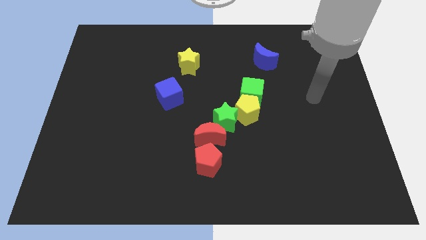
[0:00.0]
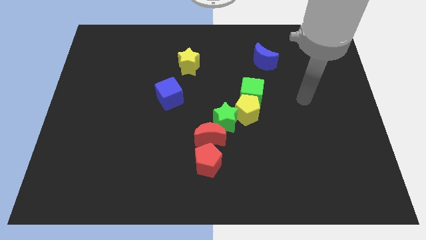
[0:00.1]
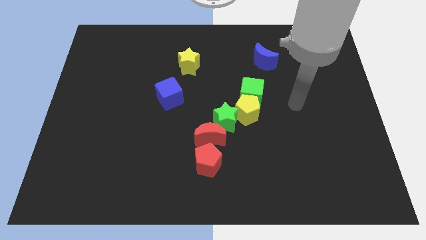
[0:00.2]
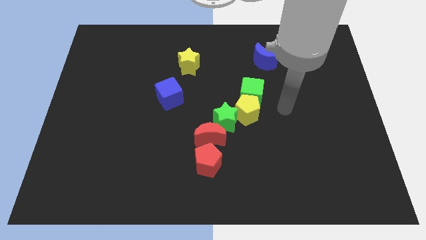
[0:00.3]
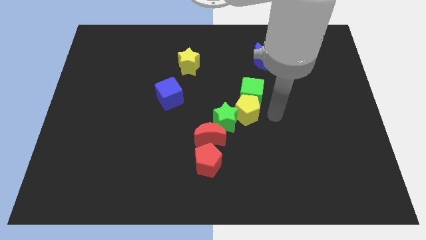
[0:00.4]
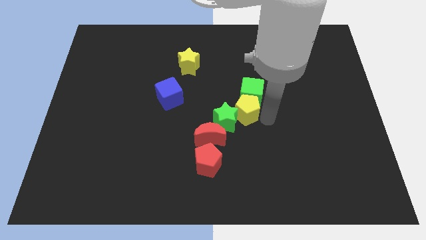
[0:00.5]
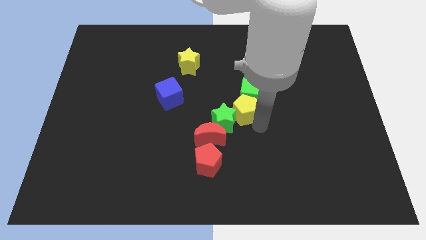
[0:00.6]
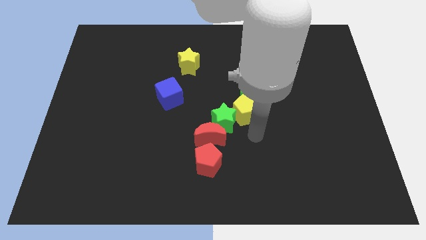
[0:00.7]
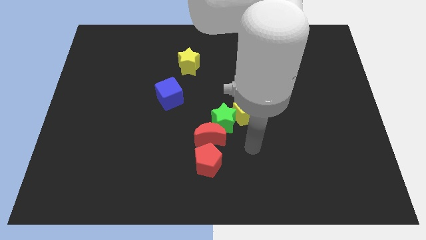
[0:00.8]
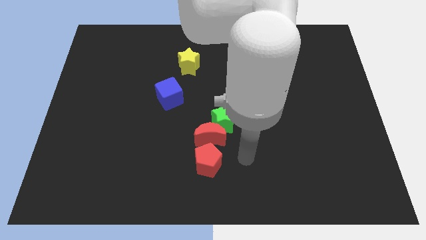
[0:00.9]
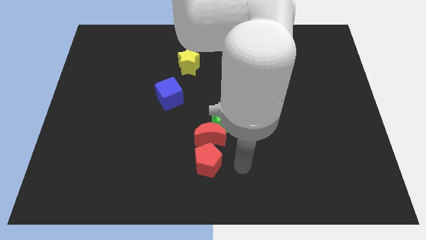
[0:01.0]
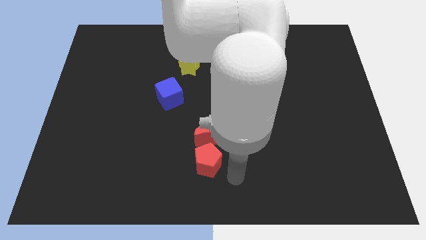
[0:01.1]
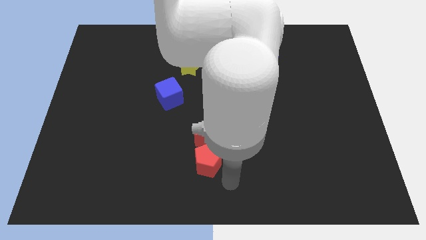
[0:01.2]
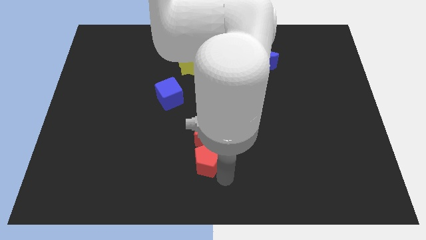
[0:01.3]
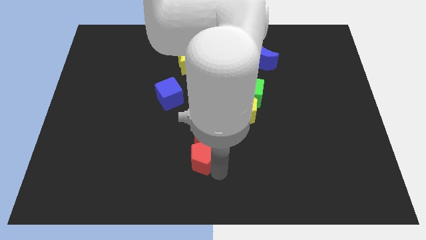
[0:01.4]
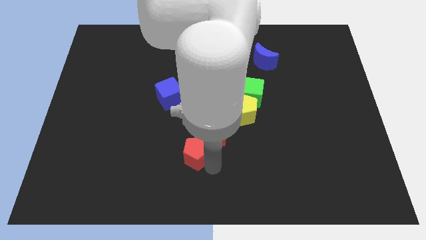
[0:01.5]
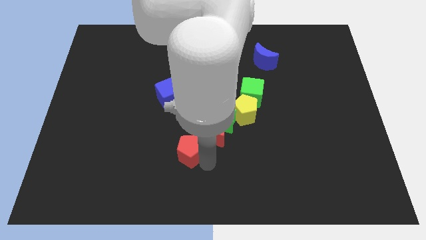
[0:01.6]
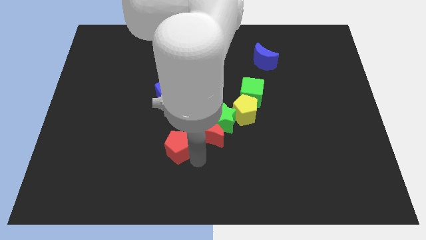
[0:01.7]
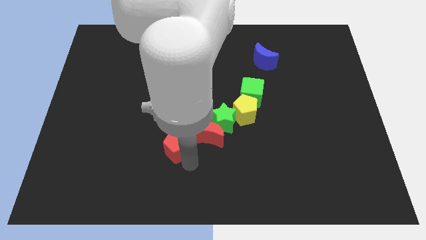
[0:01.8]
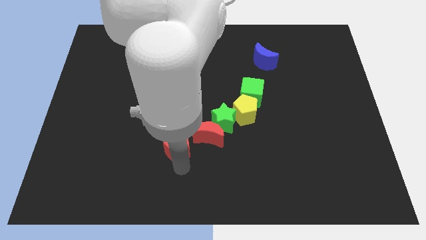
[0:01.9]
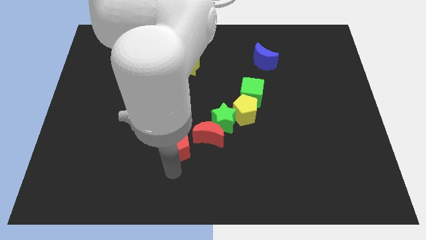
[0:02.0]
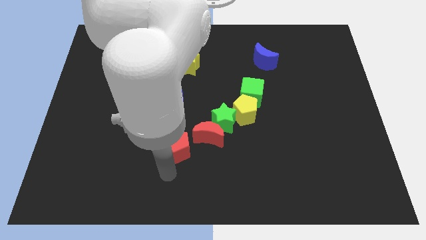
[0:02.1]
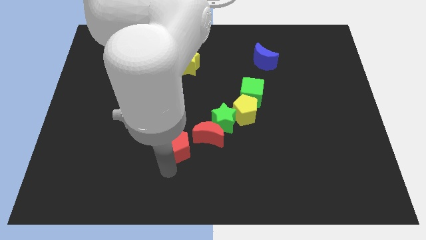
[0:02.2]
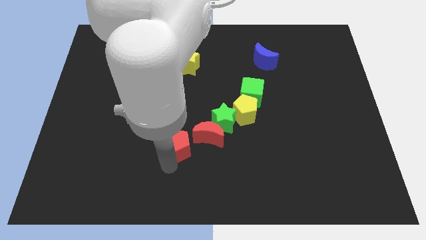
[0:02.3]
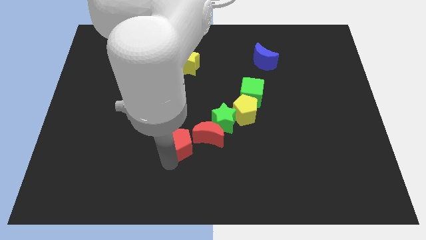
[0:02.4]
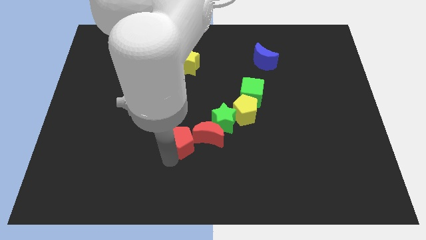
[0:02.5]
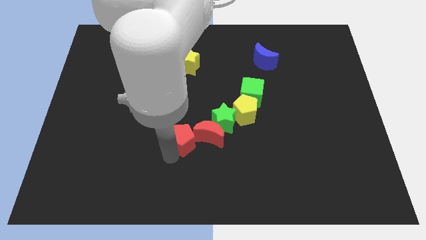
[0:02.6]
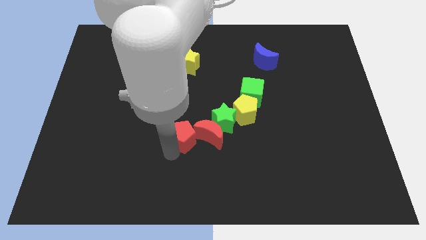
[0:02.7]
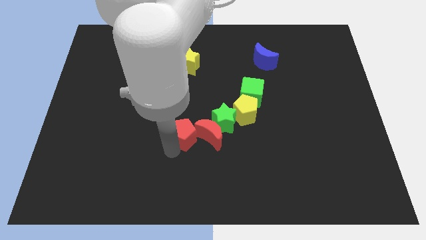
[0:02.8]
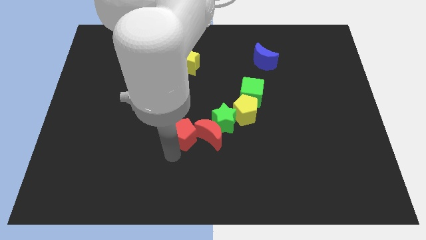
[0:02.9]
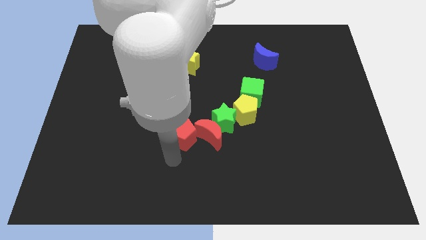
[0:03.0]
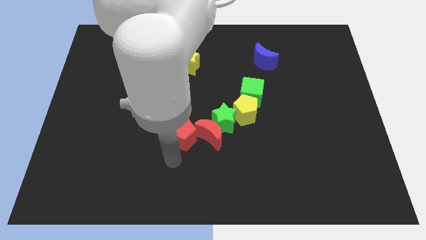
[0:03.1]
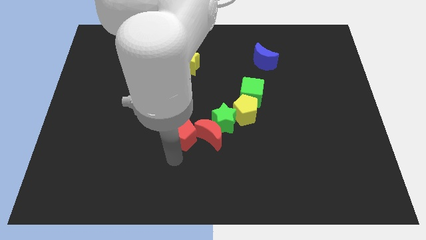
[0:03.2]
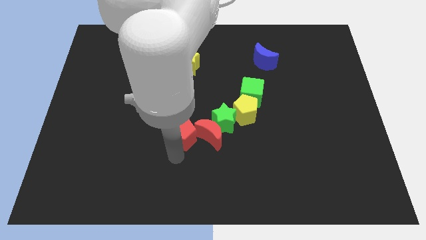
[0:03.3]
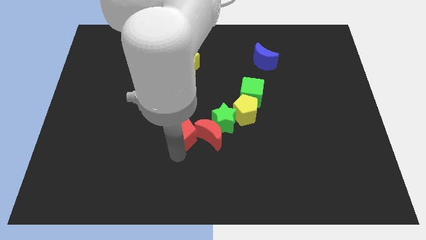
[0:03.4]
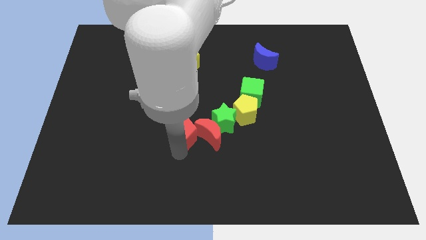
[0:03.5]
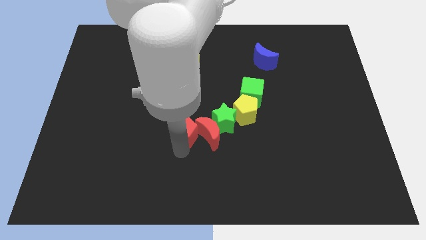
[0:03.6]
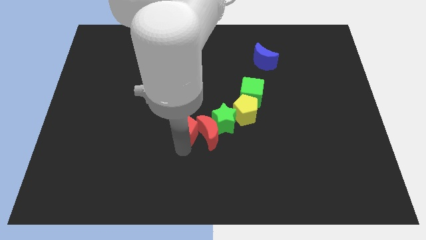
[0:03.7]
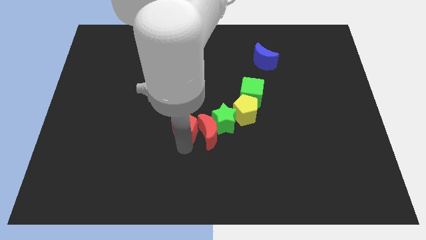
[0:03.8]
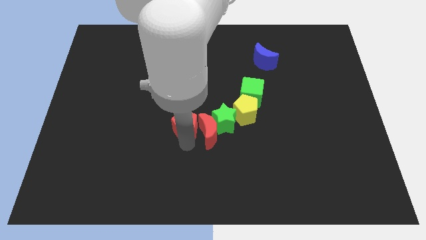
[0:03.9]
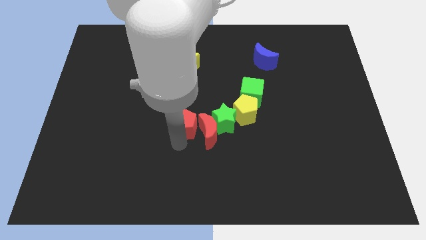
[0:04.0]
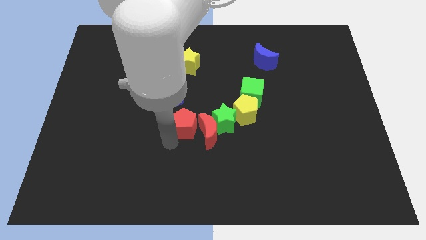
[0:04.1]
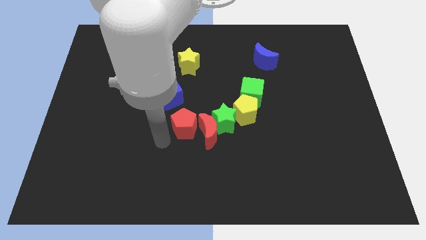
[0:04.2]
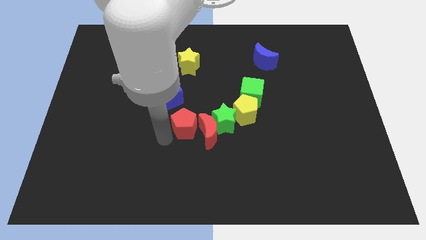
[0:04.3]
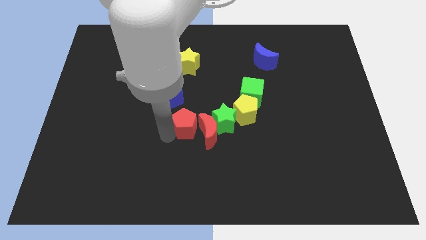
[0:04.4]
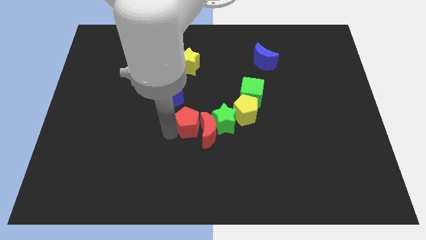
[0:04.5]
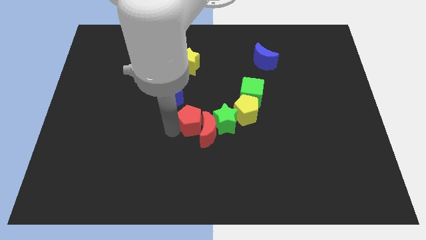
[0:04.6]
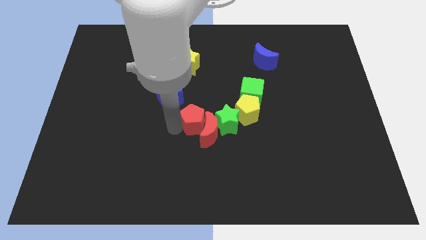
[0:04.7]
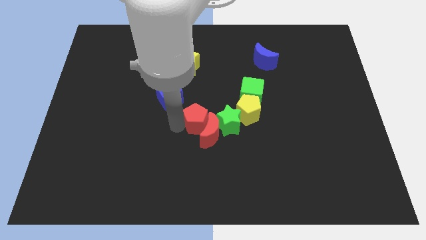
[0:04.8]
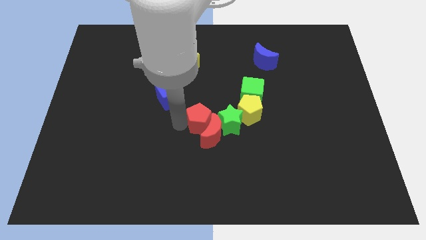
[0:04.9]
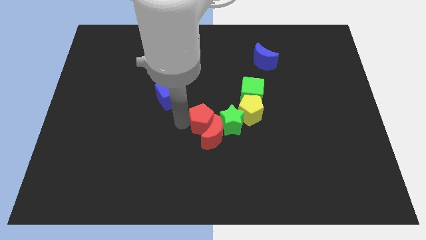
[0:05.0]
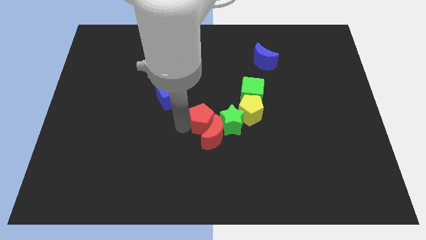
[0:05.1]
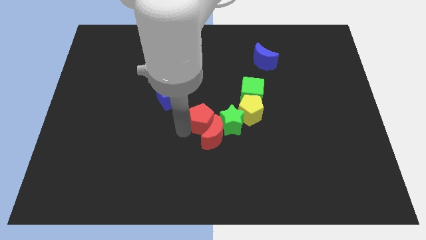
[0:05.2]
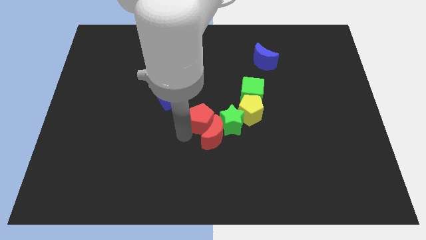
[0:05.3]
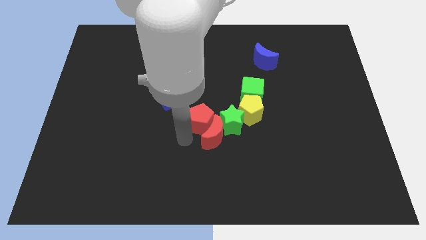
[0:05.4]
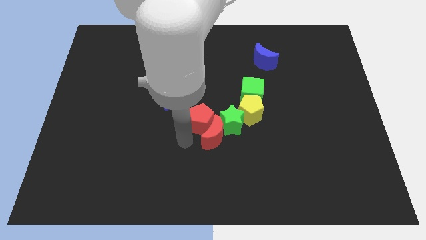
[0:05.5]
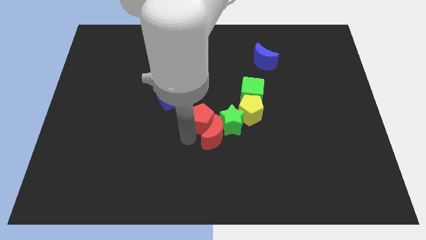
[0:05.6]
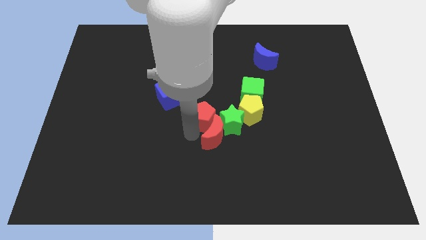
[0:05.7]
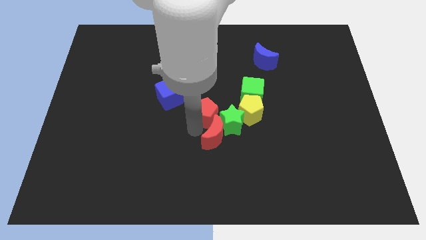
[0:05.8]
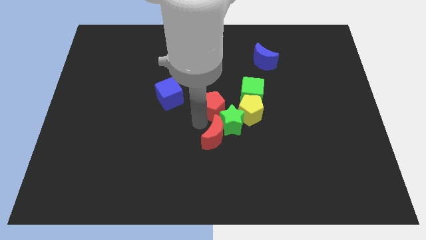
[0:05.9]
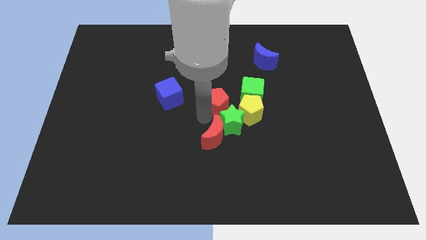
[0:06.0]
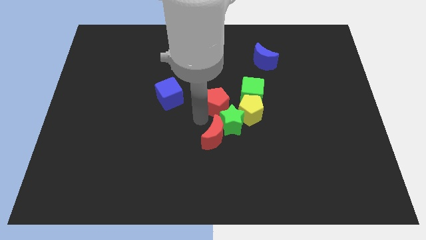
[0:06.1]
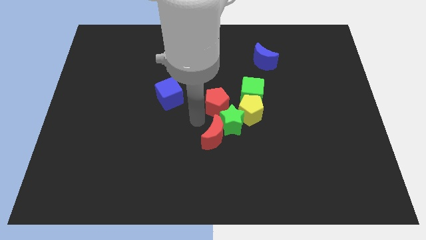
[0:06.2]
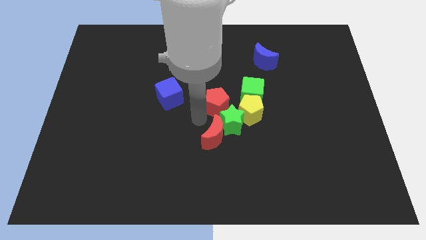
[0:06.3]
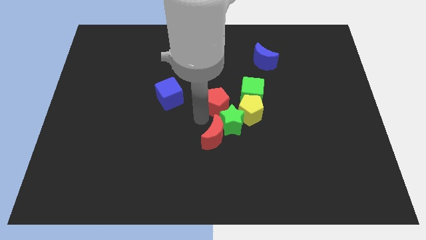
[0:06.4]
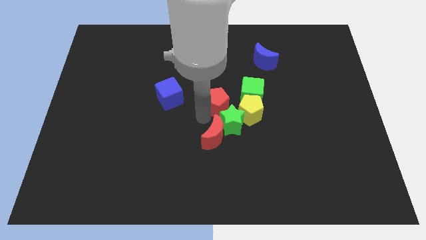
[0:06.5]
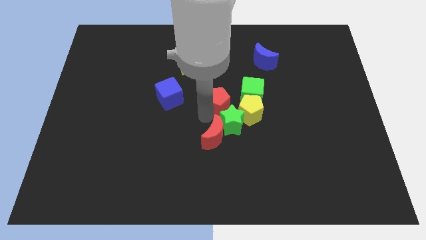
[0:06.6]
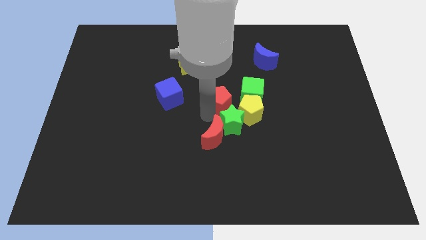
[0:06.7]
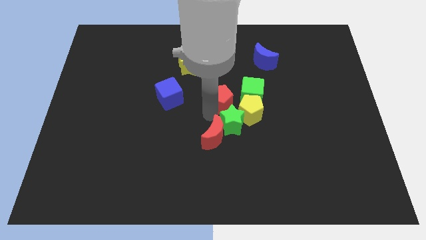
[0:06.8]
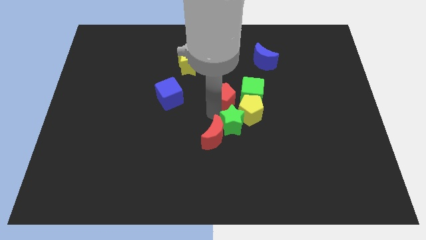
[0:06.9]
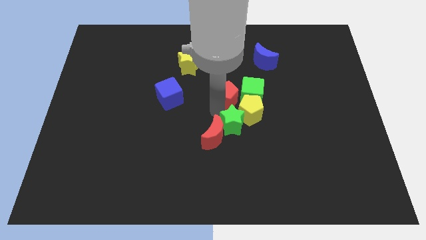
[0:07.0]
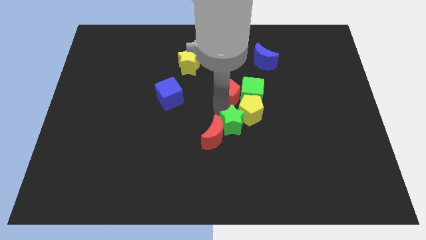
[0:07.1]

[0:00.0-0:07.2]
move the red pentagon to the top of the yellow pentagon
